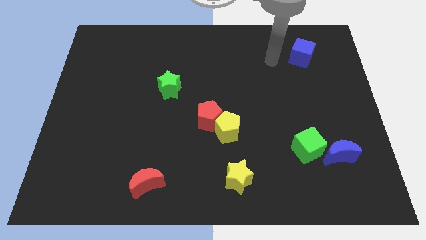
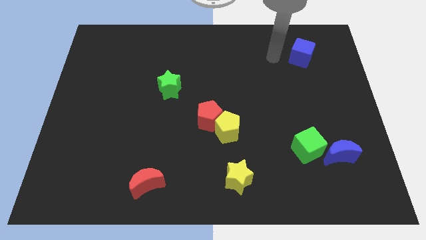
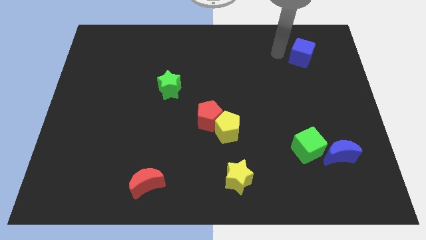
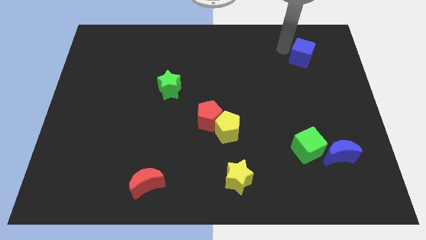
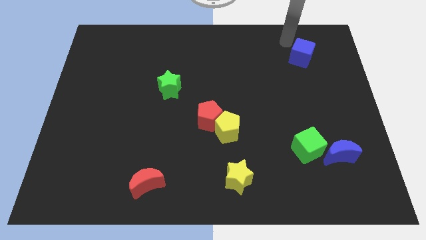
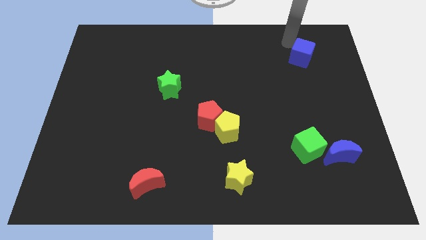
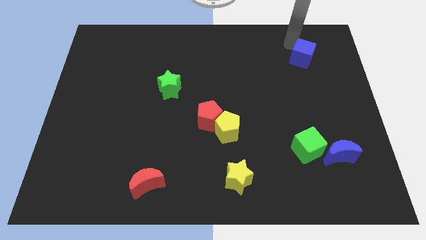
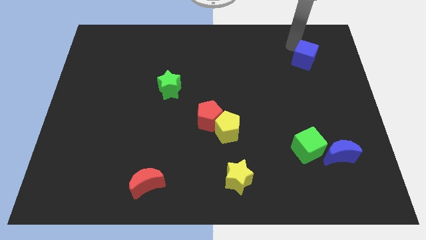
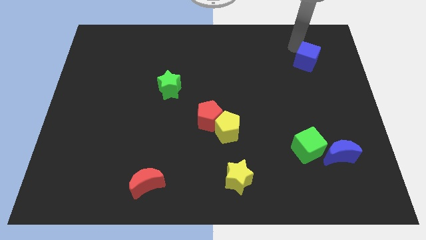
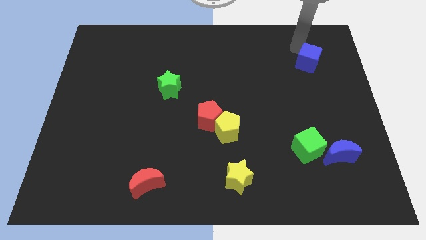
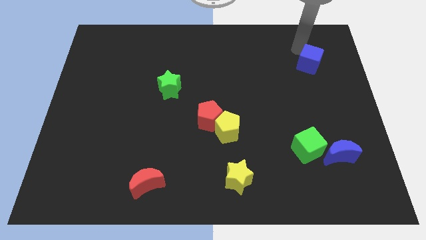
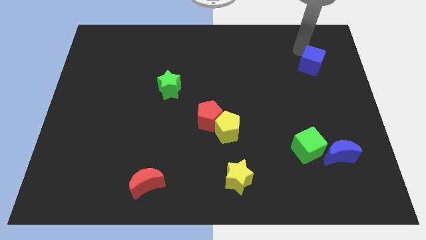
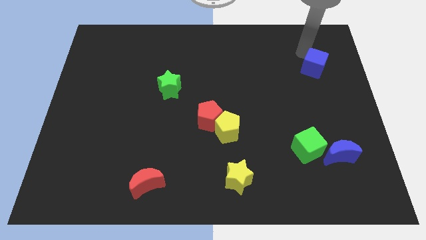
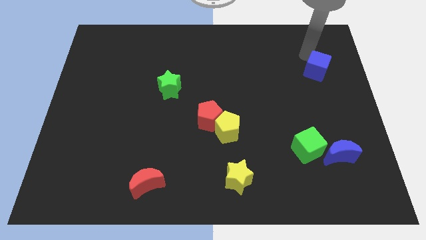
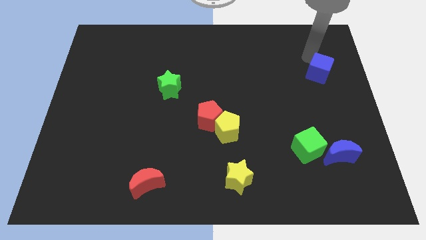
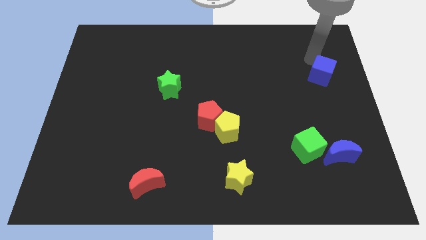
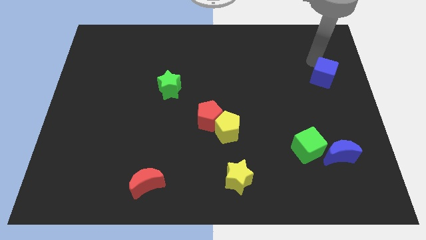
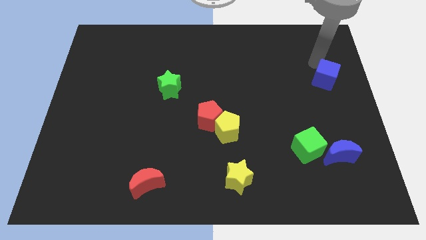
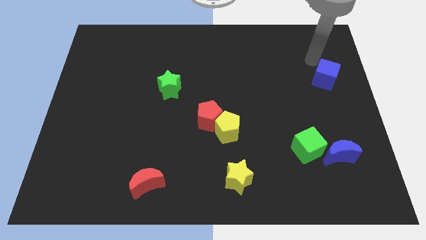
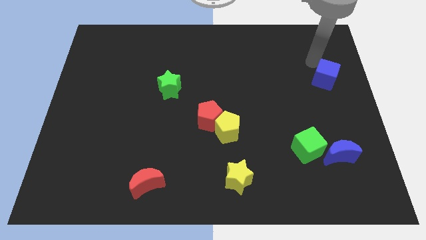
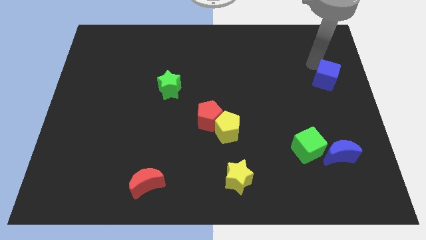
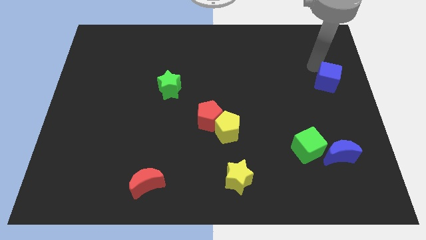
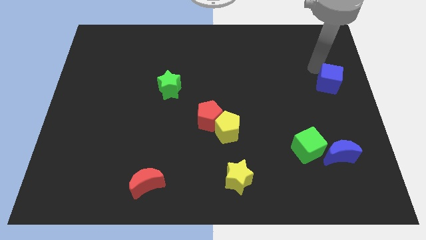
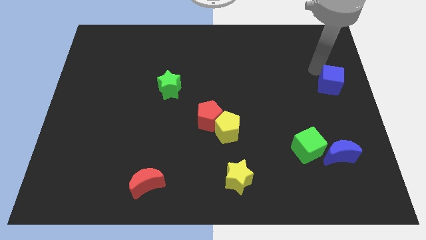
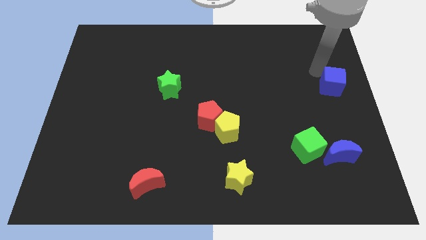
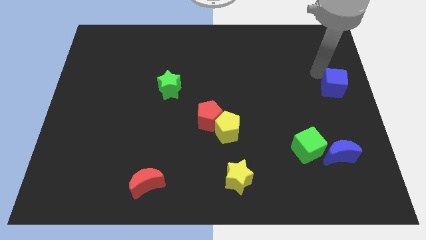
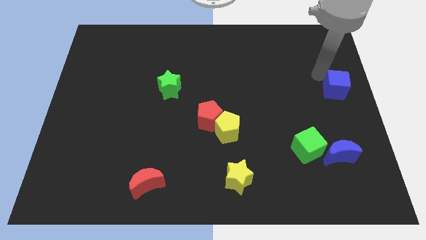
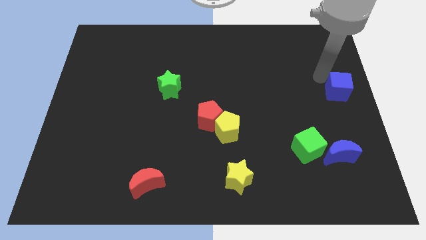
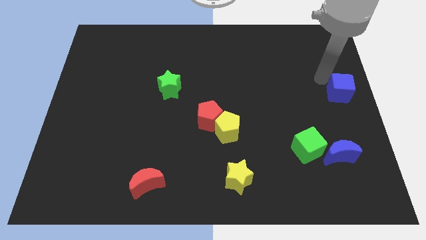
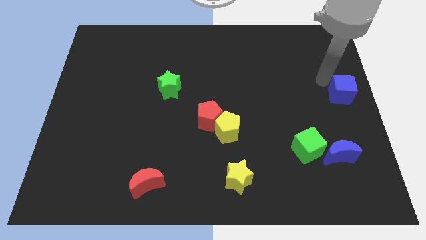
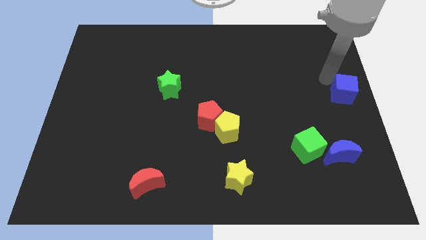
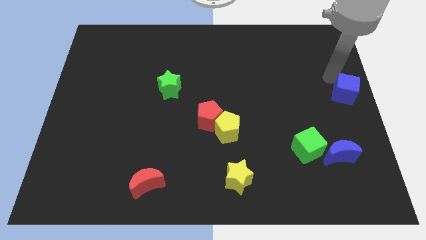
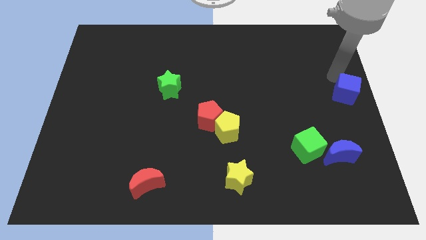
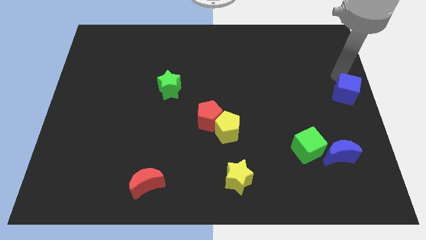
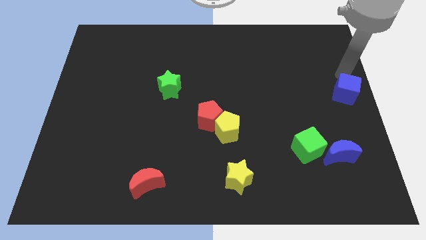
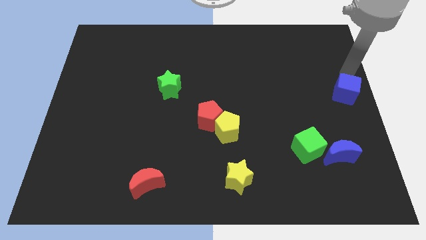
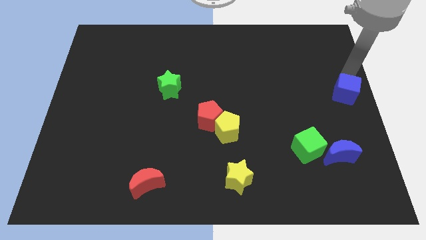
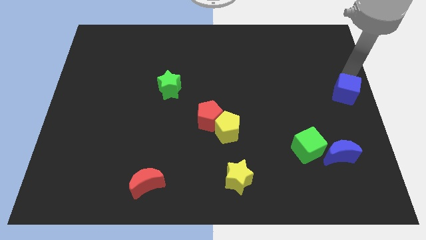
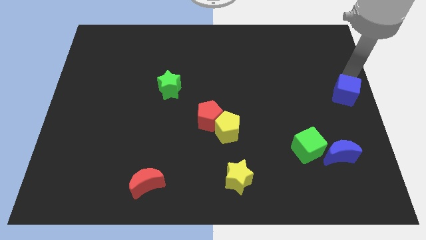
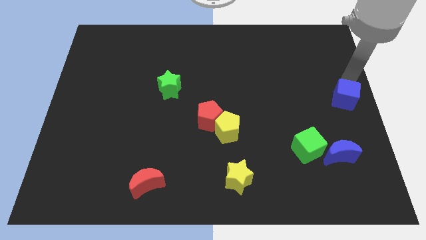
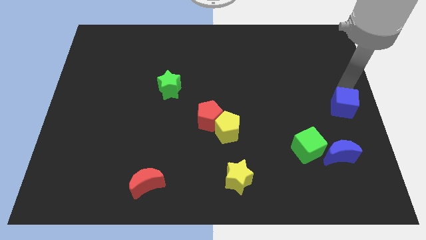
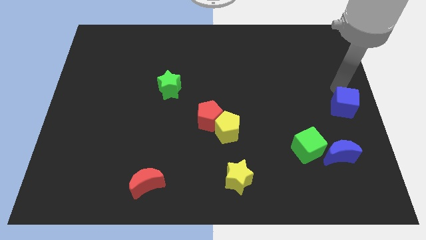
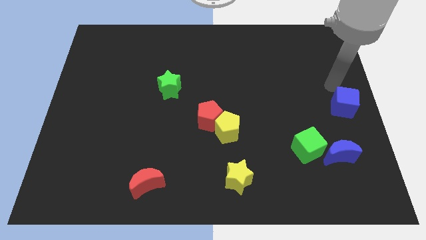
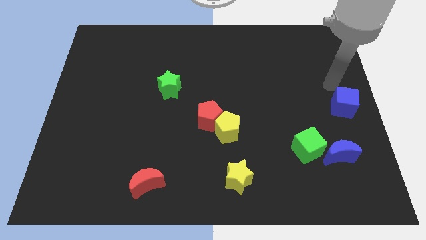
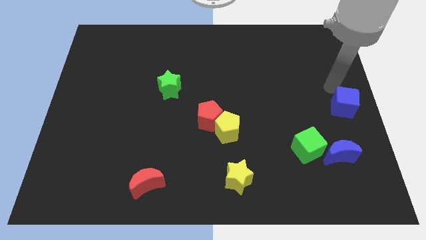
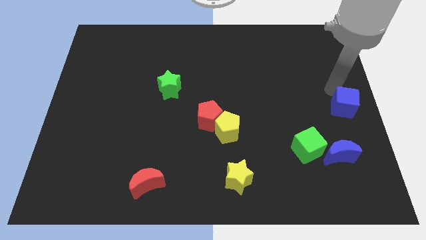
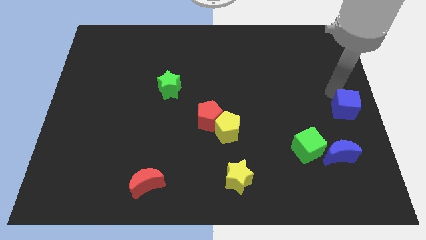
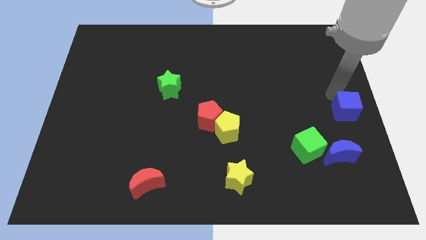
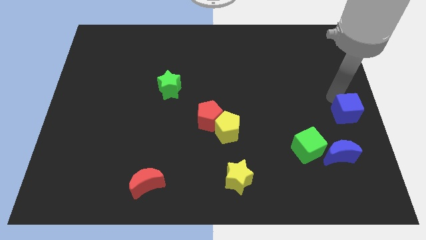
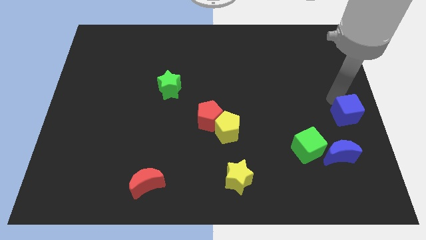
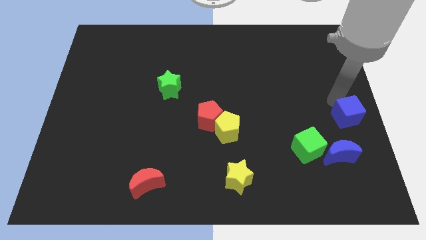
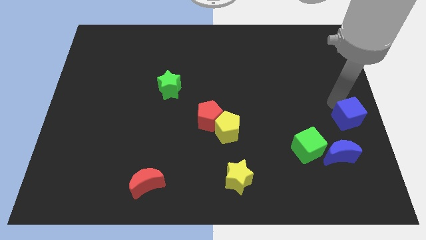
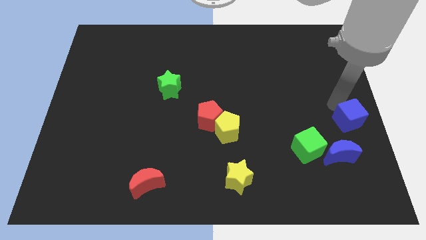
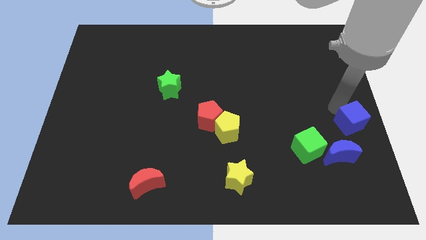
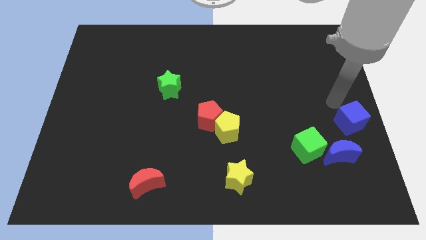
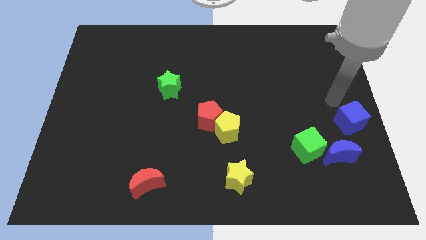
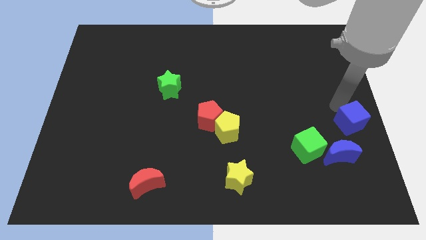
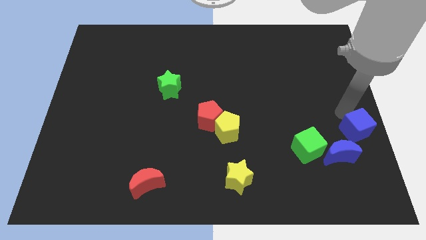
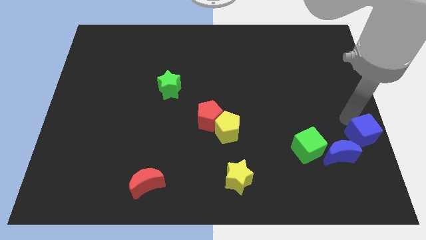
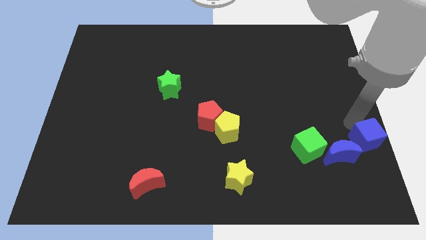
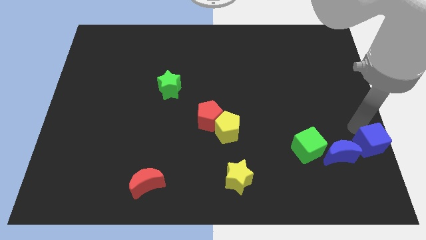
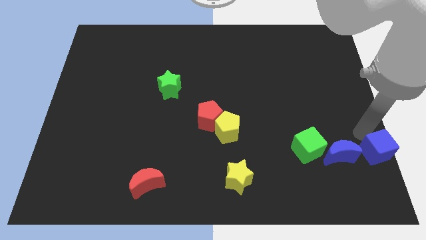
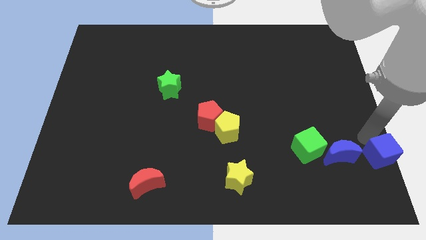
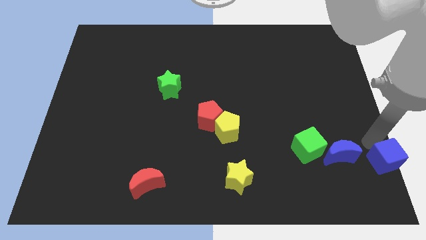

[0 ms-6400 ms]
put the blue cube to the bottom right corner

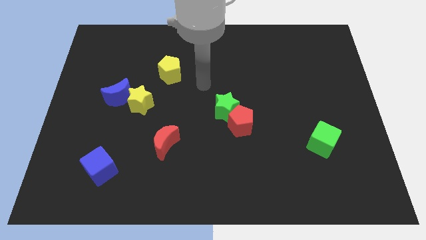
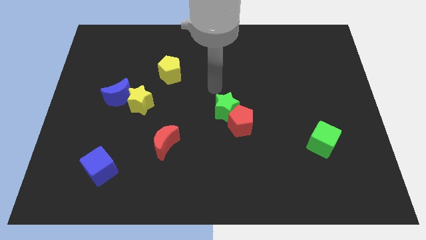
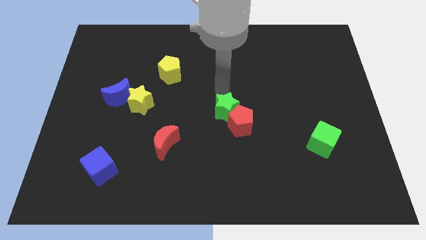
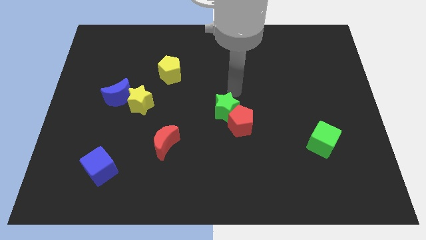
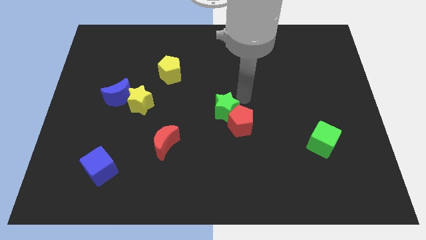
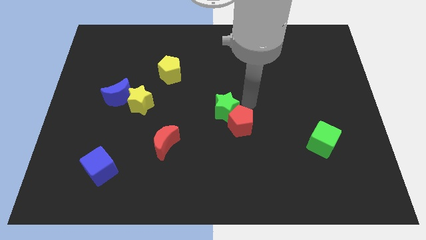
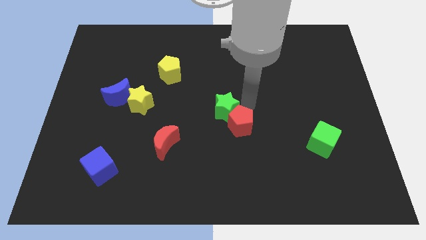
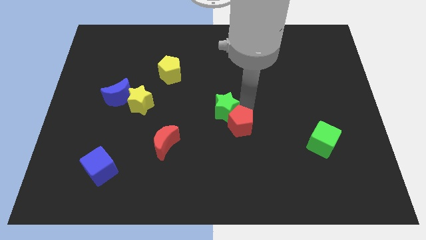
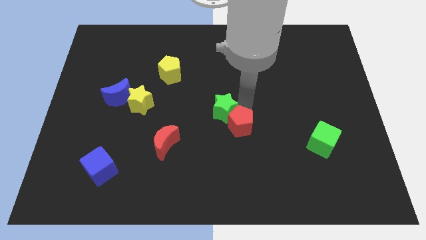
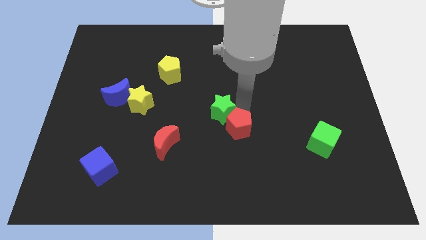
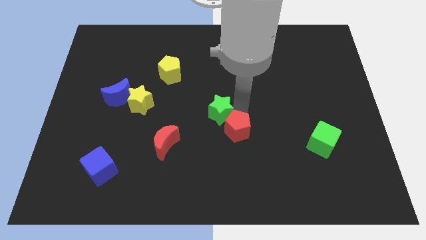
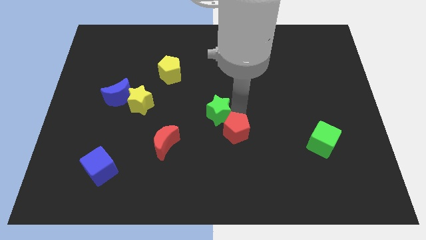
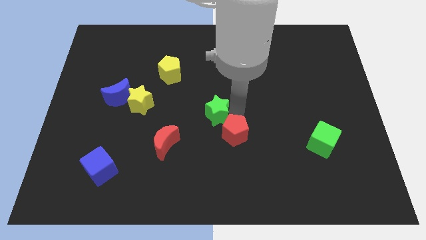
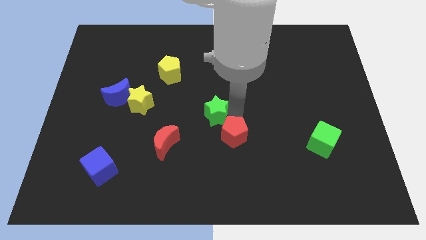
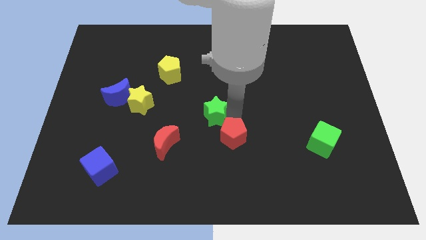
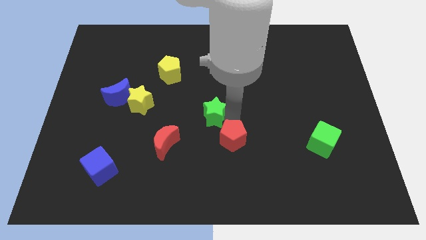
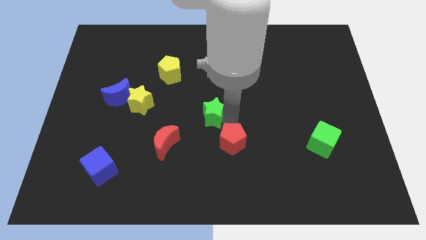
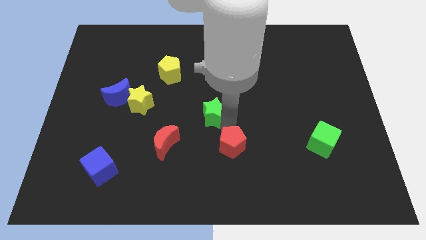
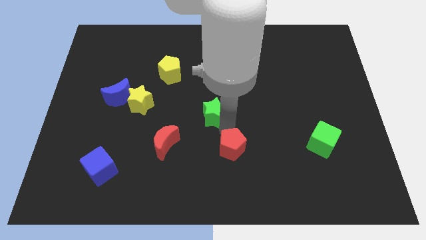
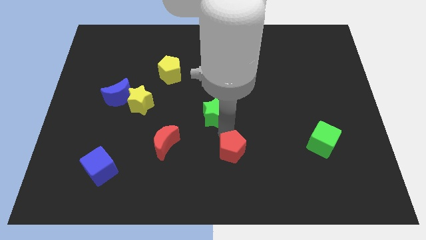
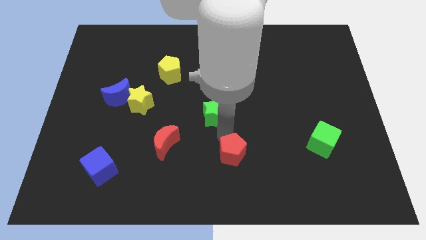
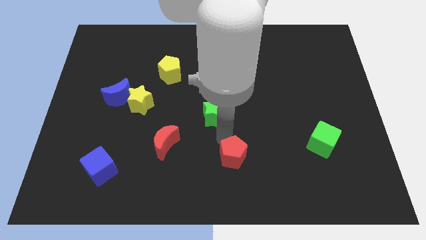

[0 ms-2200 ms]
move the red pentagon to the bottom
